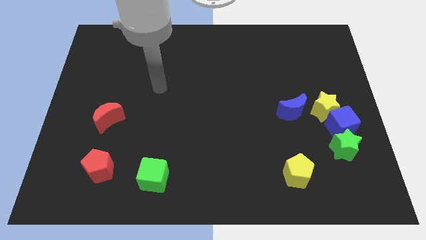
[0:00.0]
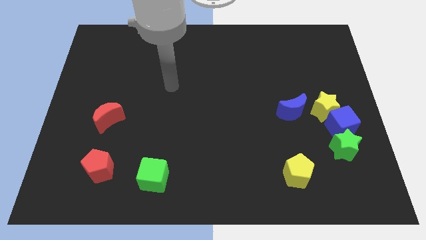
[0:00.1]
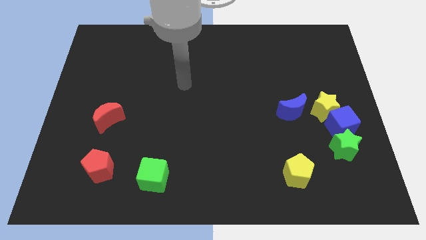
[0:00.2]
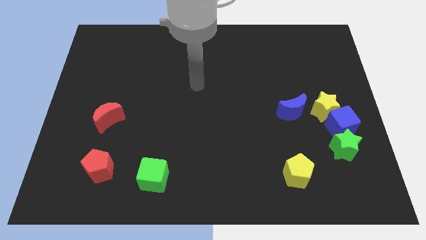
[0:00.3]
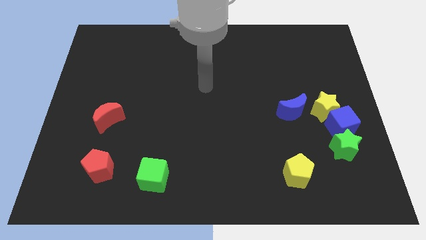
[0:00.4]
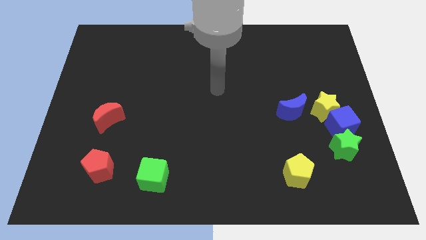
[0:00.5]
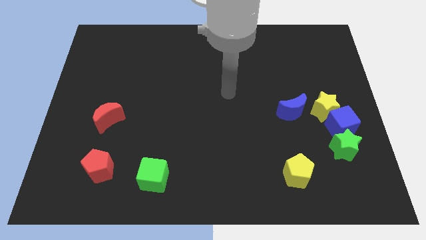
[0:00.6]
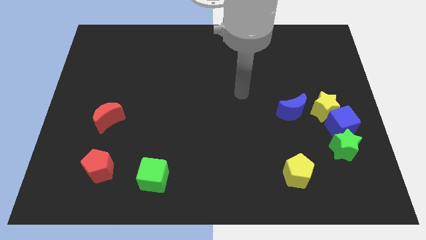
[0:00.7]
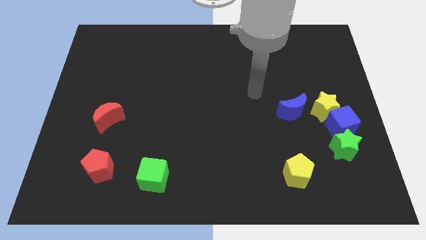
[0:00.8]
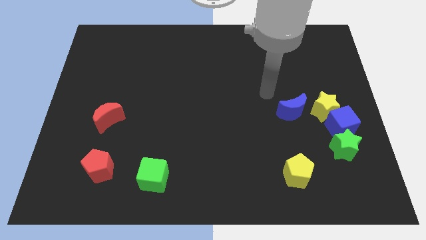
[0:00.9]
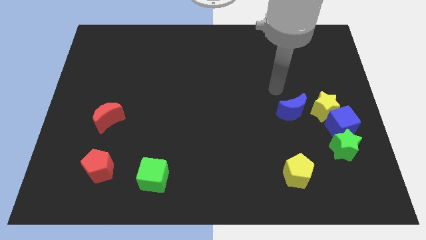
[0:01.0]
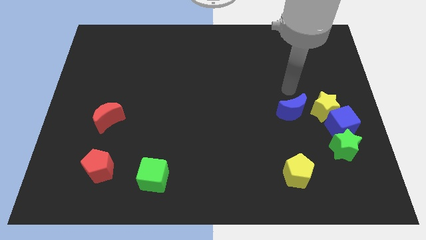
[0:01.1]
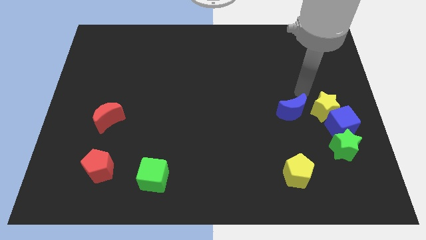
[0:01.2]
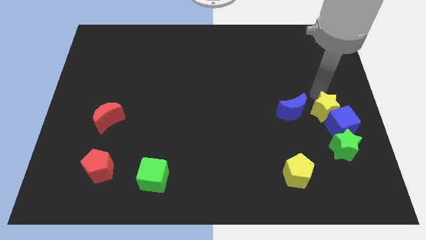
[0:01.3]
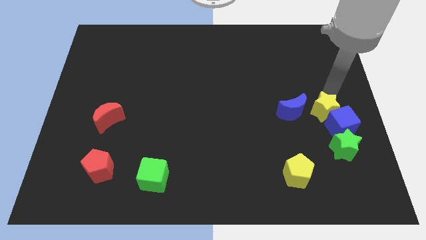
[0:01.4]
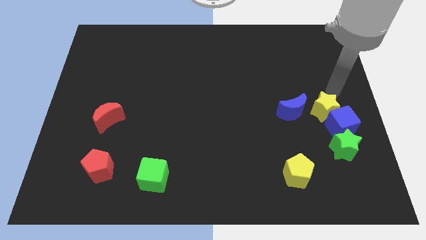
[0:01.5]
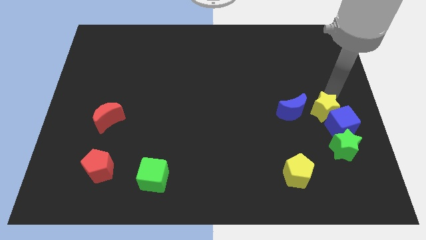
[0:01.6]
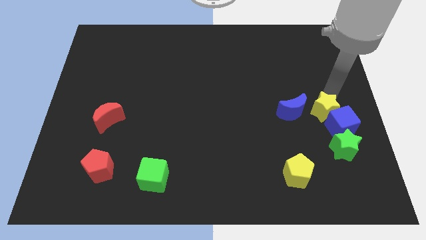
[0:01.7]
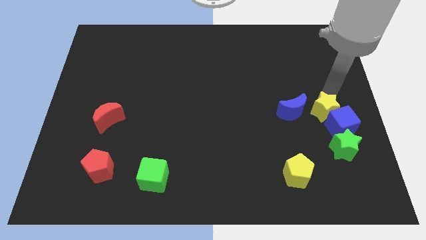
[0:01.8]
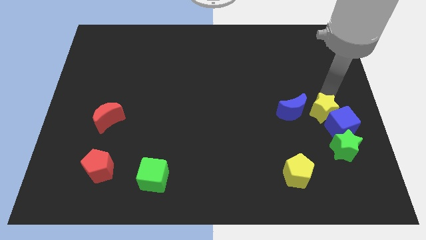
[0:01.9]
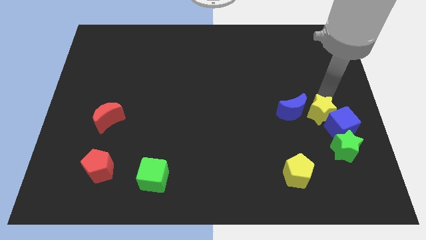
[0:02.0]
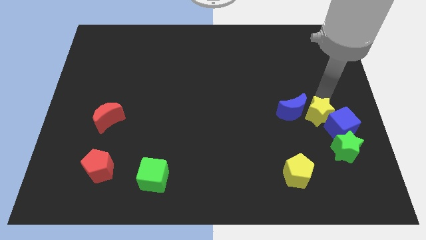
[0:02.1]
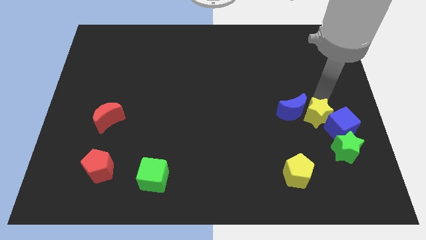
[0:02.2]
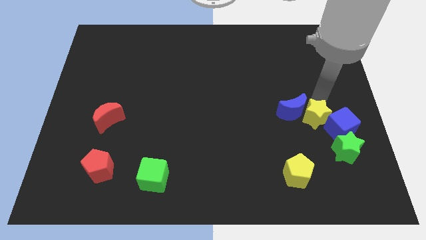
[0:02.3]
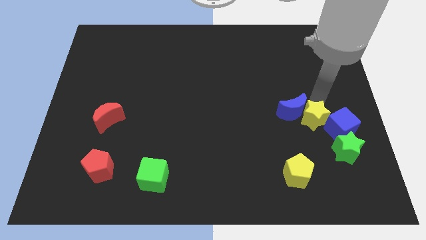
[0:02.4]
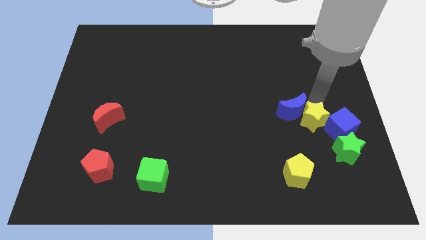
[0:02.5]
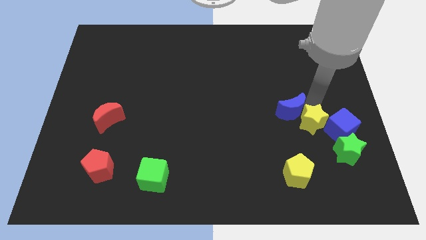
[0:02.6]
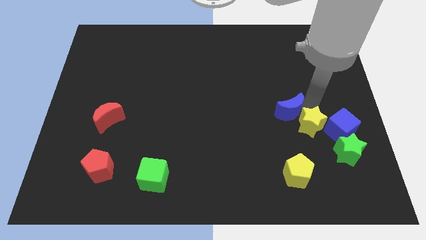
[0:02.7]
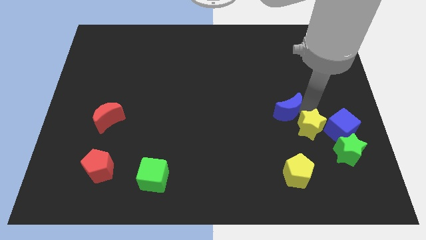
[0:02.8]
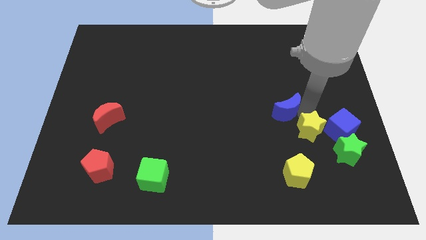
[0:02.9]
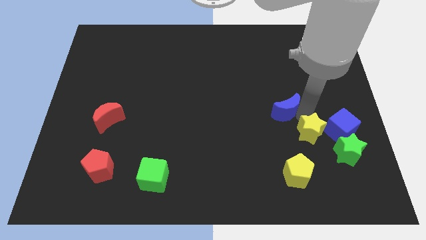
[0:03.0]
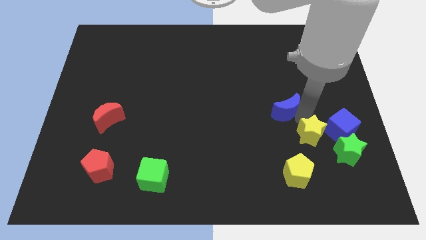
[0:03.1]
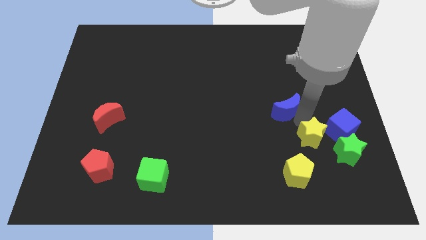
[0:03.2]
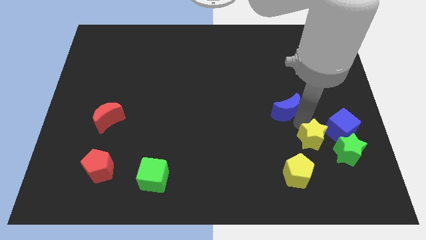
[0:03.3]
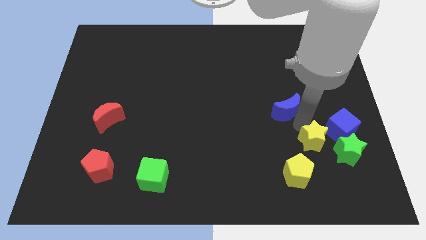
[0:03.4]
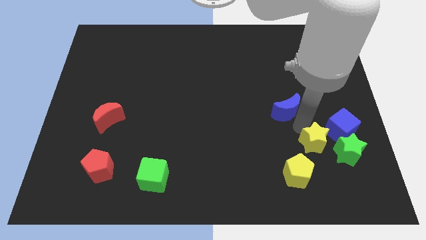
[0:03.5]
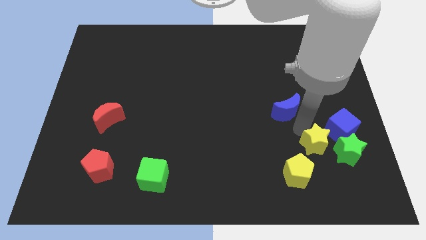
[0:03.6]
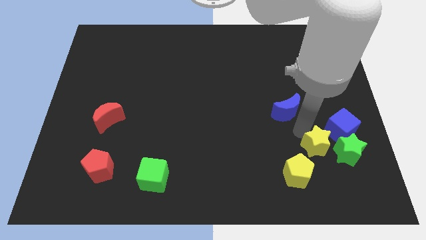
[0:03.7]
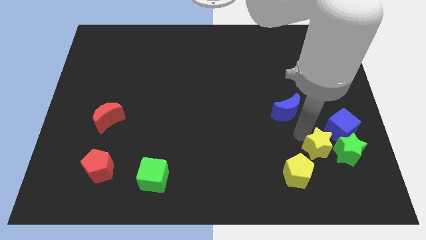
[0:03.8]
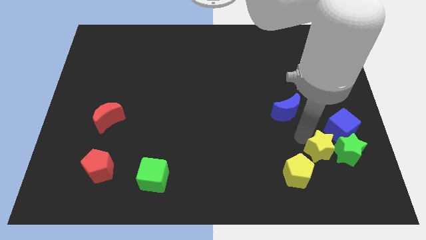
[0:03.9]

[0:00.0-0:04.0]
put the yellow star diagonally down and to the left of the green star

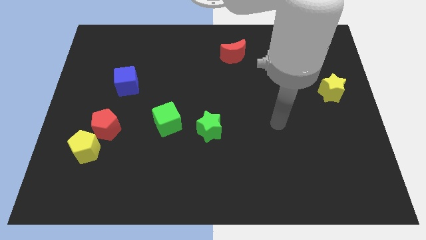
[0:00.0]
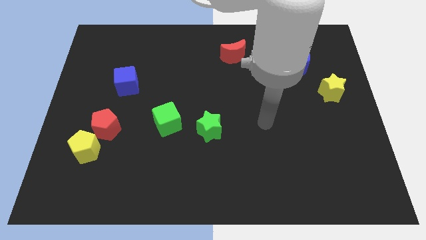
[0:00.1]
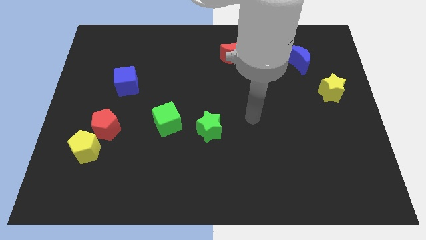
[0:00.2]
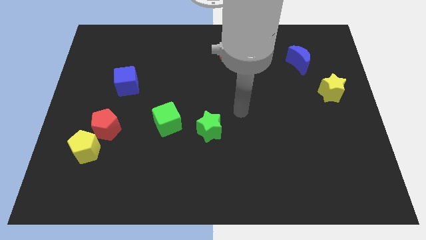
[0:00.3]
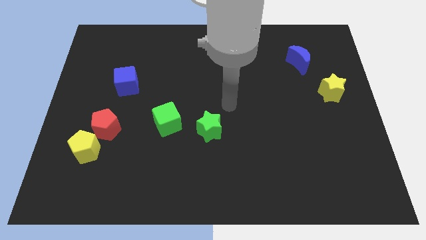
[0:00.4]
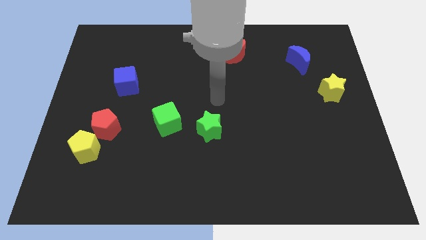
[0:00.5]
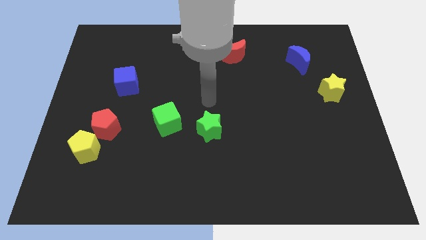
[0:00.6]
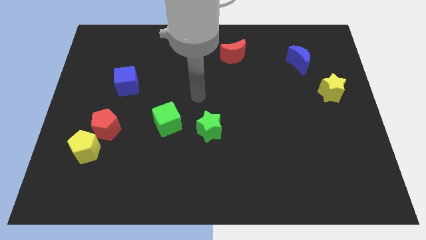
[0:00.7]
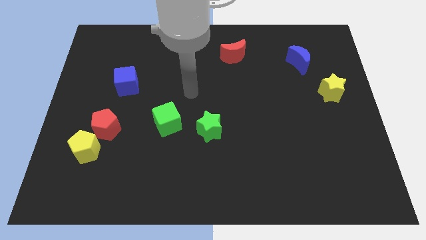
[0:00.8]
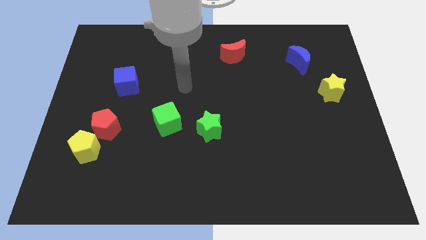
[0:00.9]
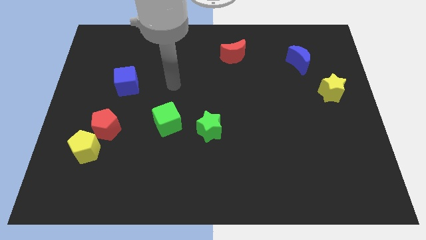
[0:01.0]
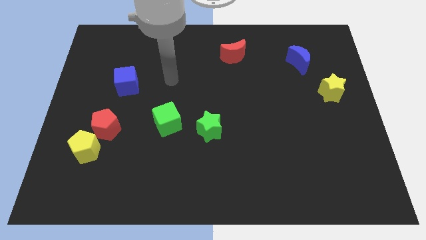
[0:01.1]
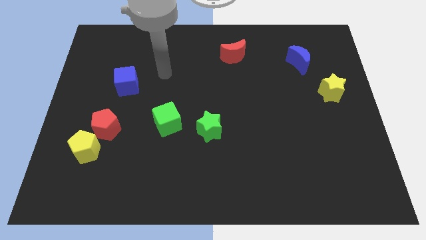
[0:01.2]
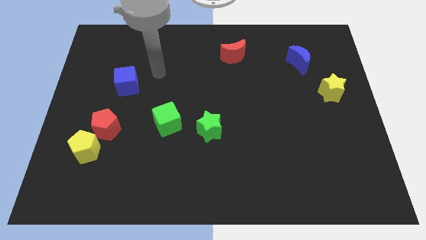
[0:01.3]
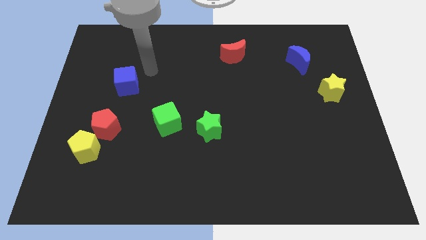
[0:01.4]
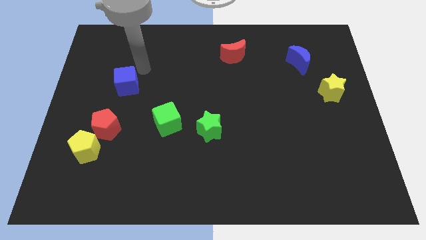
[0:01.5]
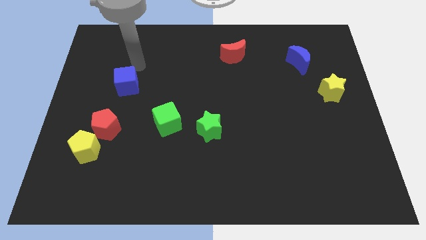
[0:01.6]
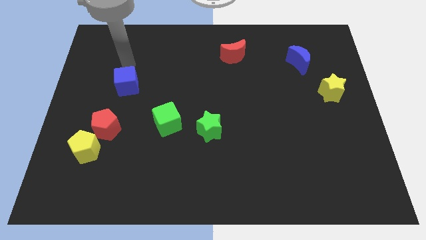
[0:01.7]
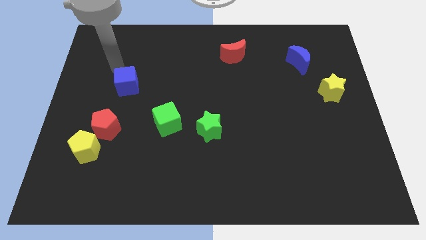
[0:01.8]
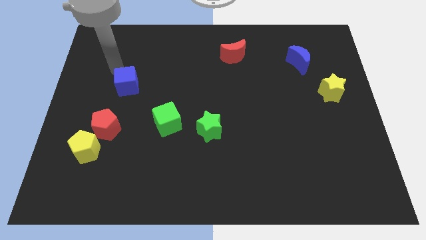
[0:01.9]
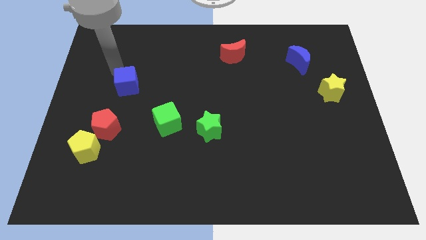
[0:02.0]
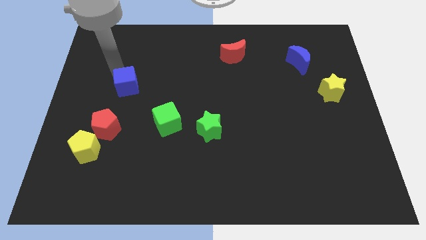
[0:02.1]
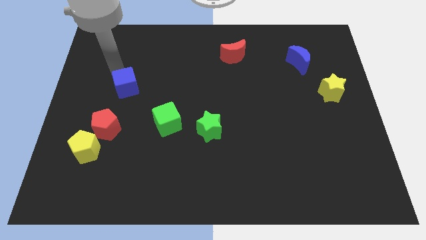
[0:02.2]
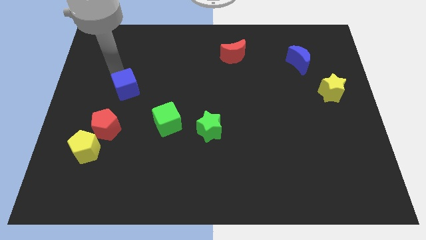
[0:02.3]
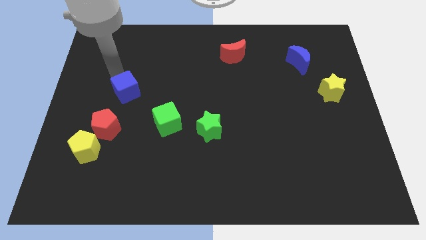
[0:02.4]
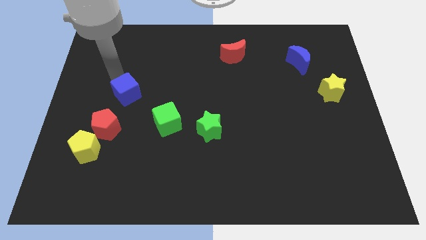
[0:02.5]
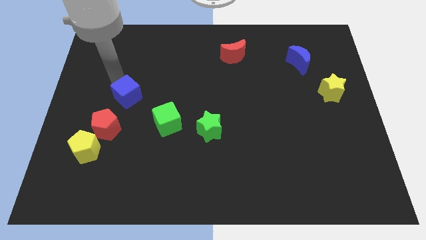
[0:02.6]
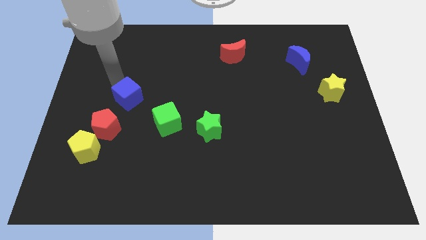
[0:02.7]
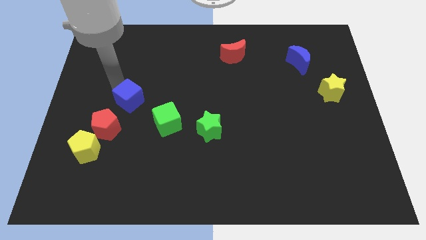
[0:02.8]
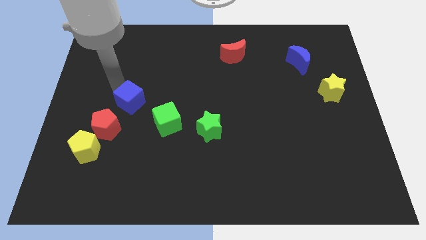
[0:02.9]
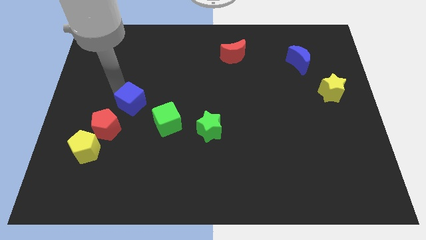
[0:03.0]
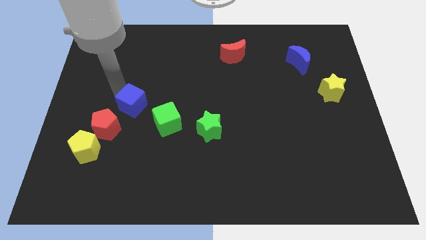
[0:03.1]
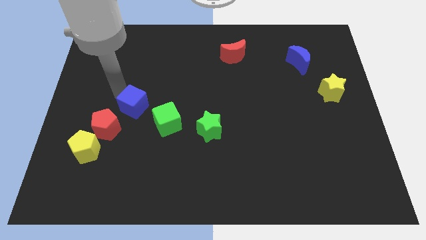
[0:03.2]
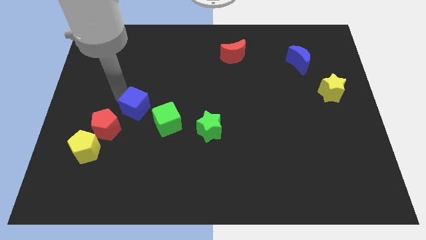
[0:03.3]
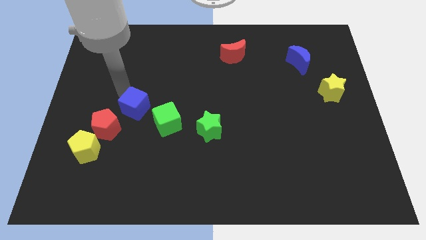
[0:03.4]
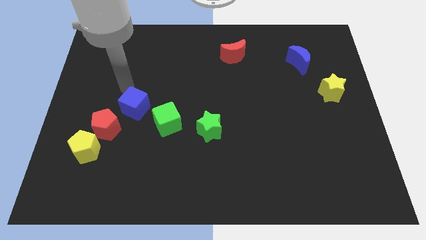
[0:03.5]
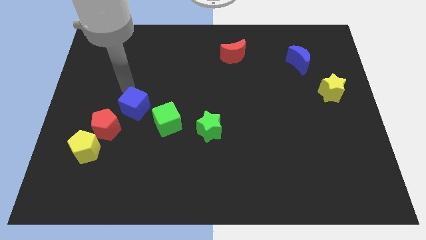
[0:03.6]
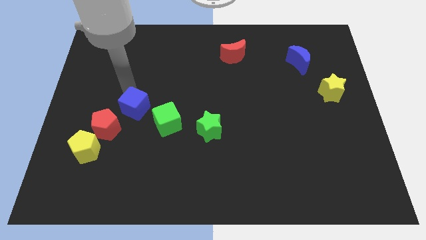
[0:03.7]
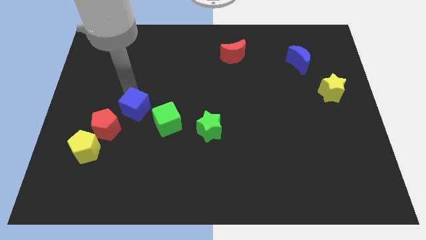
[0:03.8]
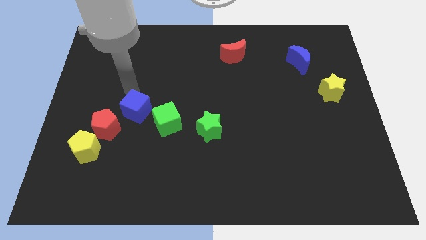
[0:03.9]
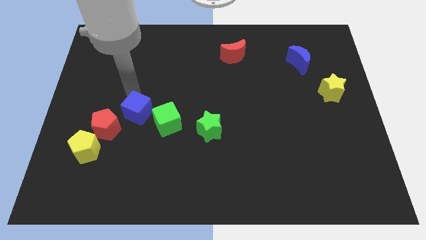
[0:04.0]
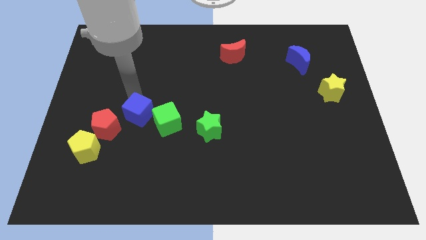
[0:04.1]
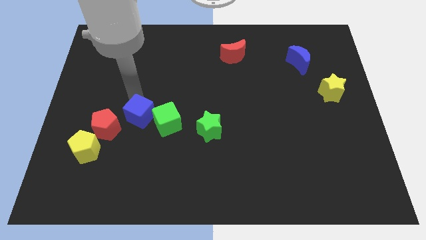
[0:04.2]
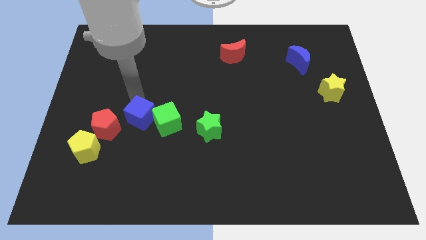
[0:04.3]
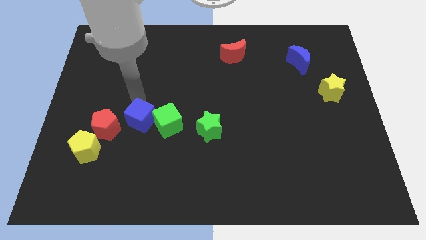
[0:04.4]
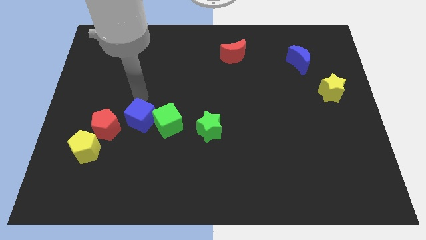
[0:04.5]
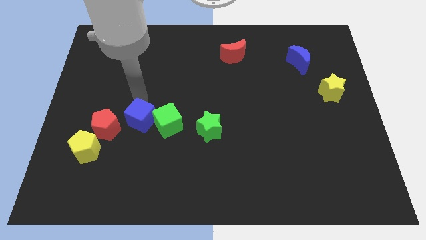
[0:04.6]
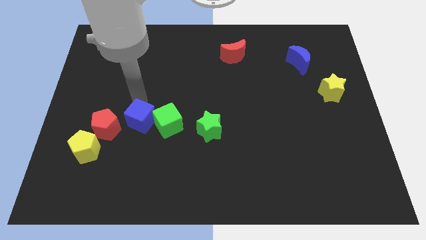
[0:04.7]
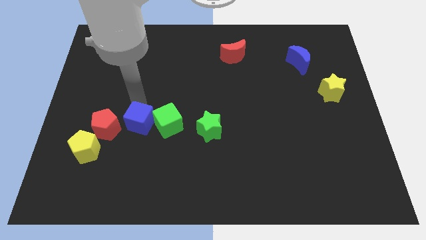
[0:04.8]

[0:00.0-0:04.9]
push the blue cube to the bottom left of the green cube
